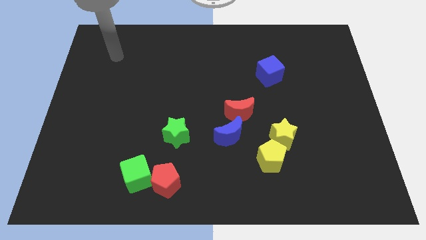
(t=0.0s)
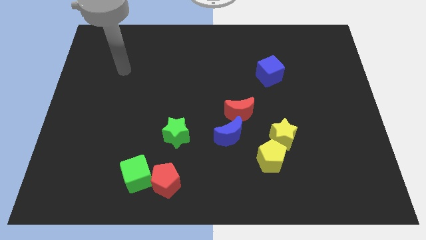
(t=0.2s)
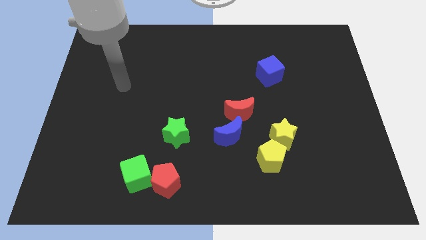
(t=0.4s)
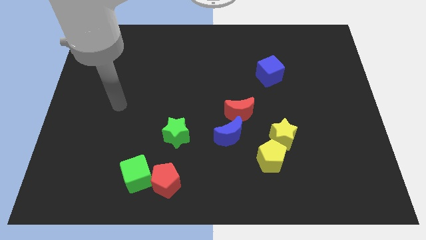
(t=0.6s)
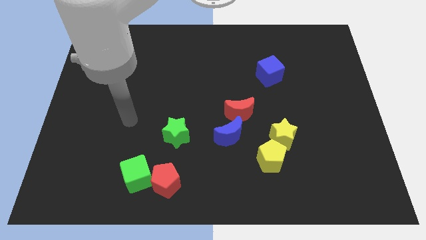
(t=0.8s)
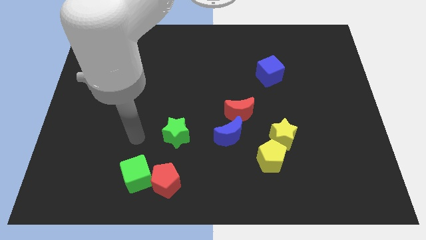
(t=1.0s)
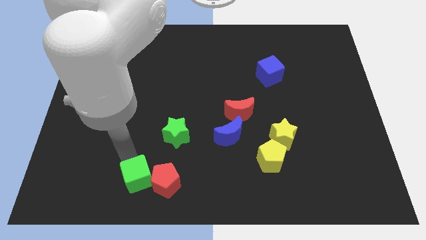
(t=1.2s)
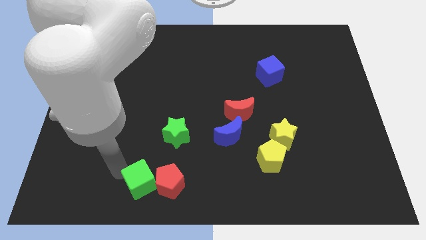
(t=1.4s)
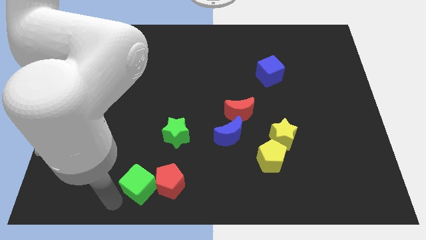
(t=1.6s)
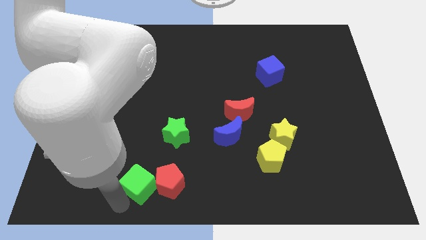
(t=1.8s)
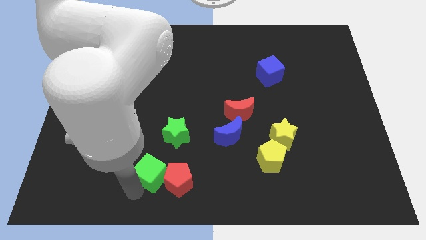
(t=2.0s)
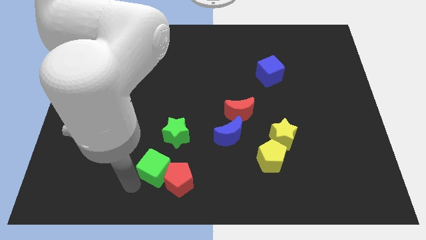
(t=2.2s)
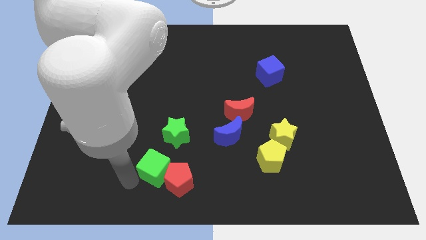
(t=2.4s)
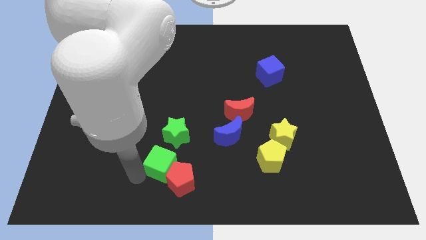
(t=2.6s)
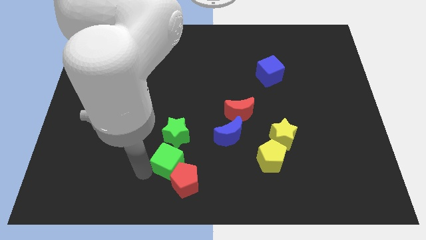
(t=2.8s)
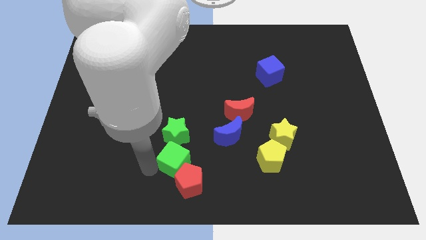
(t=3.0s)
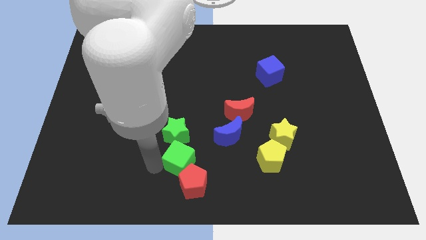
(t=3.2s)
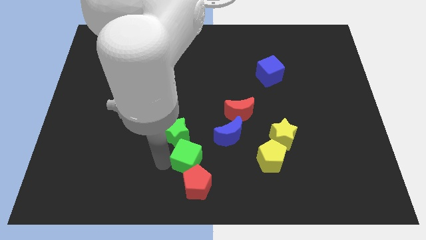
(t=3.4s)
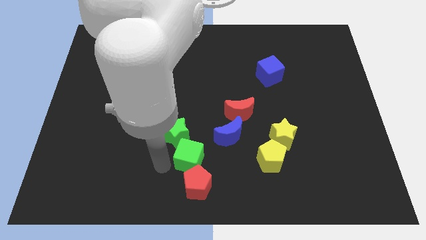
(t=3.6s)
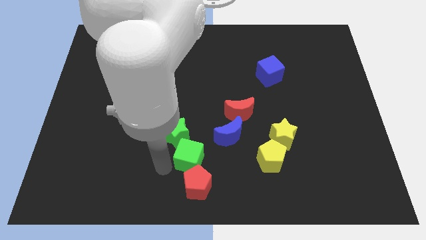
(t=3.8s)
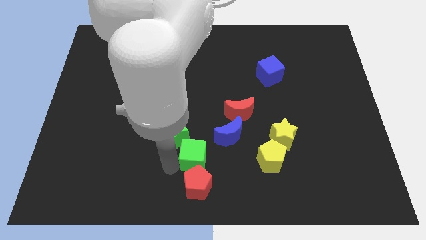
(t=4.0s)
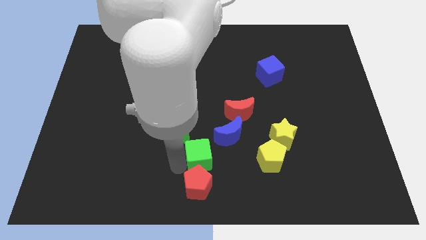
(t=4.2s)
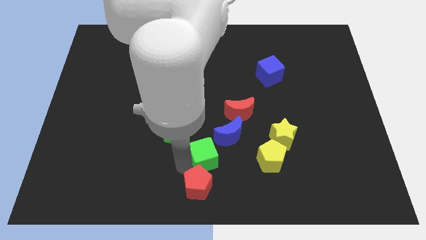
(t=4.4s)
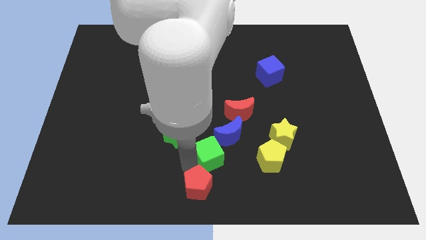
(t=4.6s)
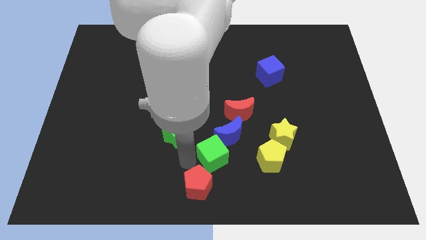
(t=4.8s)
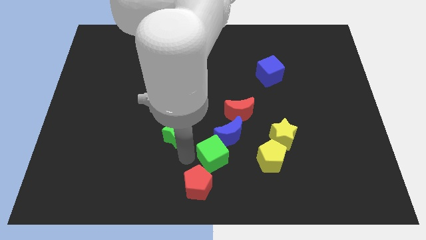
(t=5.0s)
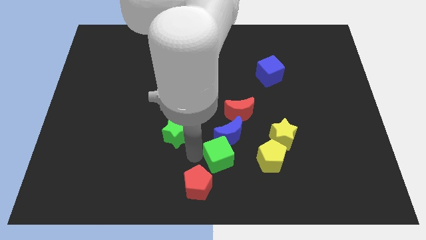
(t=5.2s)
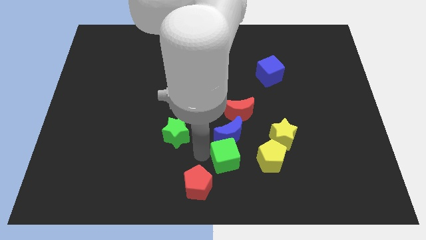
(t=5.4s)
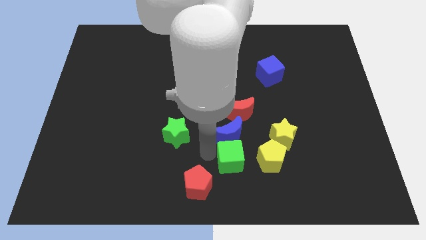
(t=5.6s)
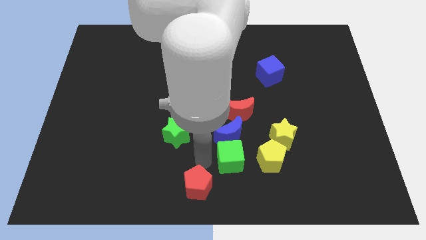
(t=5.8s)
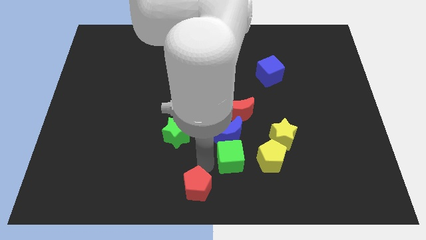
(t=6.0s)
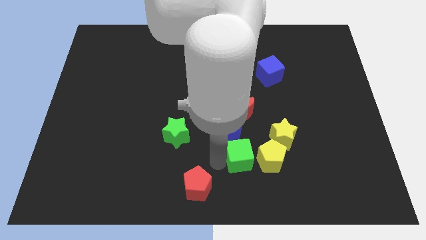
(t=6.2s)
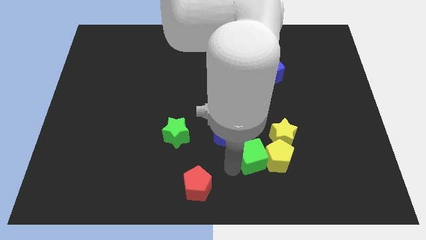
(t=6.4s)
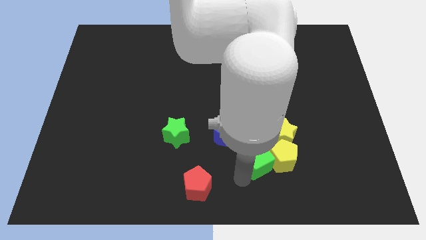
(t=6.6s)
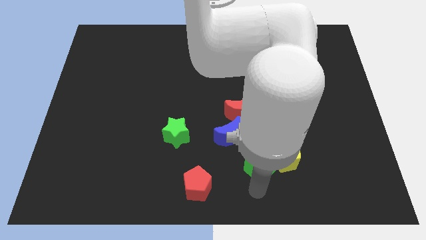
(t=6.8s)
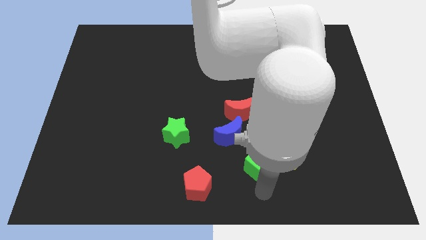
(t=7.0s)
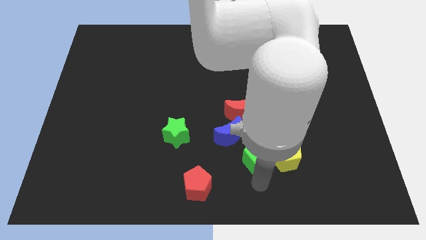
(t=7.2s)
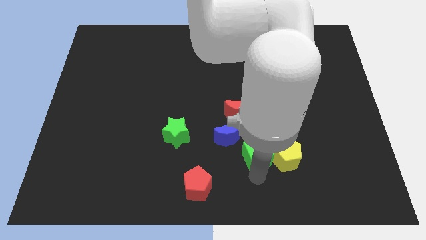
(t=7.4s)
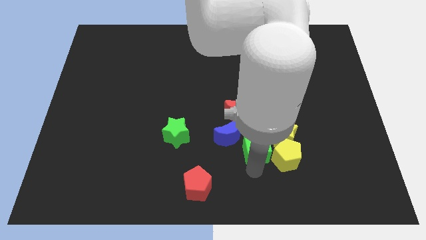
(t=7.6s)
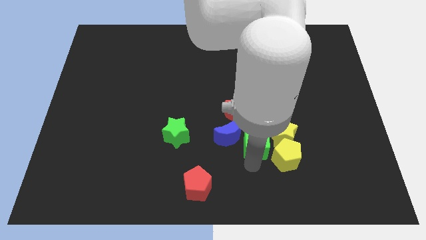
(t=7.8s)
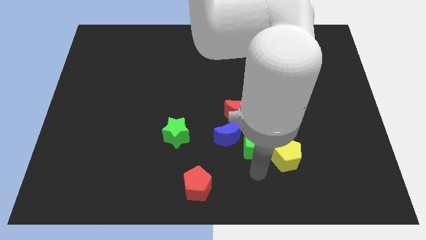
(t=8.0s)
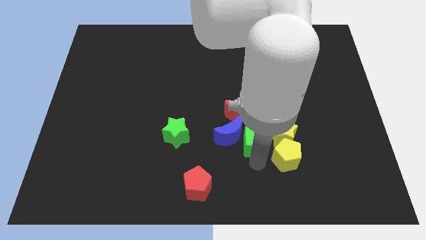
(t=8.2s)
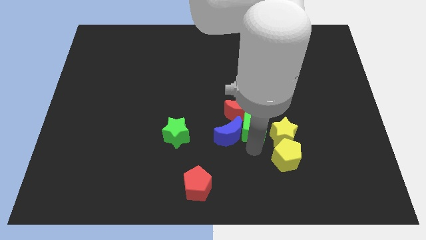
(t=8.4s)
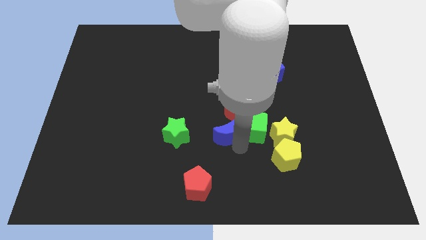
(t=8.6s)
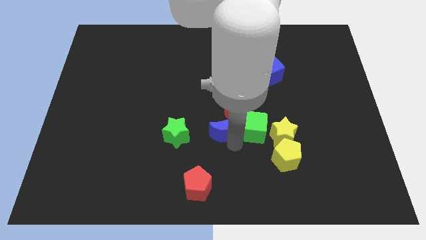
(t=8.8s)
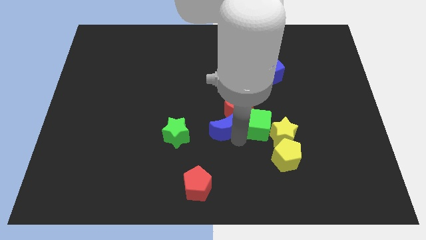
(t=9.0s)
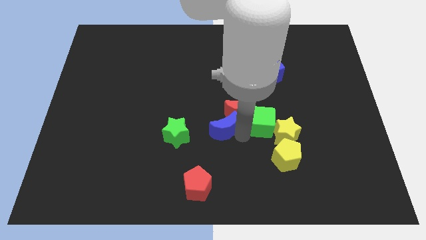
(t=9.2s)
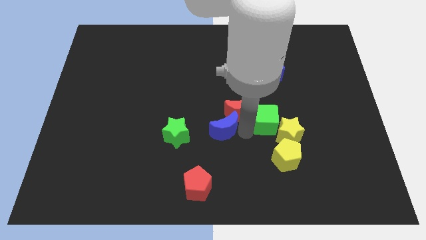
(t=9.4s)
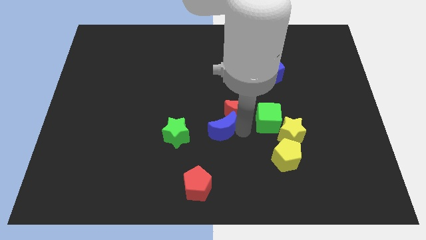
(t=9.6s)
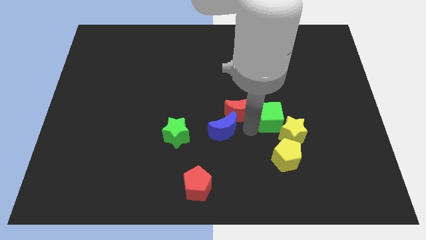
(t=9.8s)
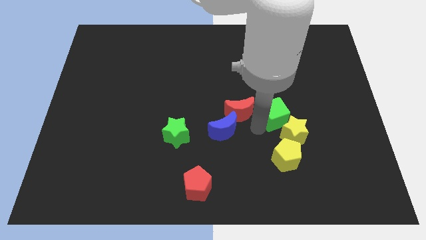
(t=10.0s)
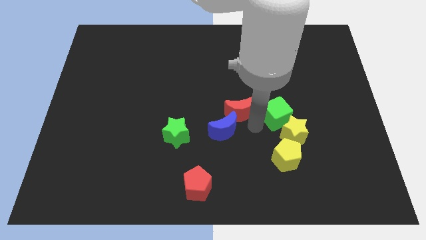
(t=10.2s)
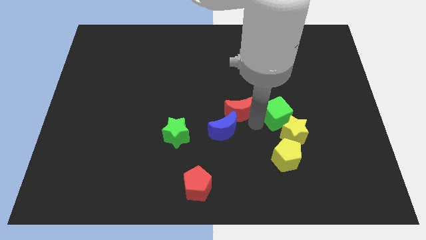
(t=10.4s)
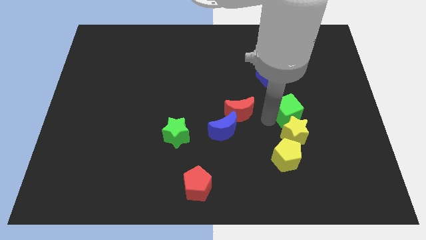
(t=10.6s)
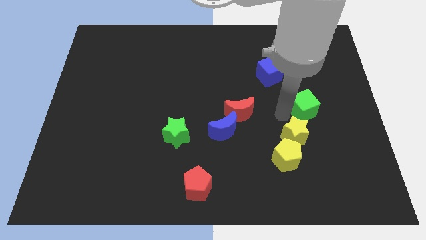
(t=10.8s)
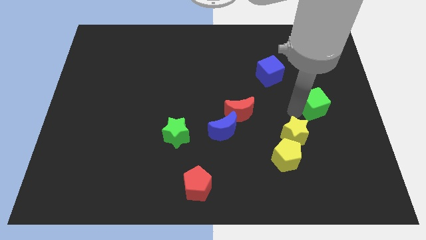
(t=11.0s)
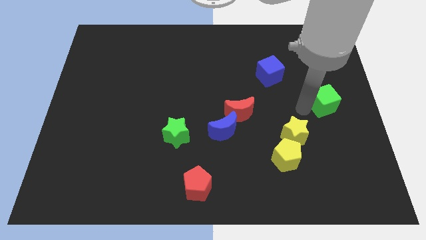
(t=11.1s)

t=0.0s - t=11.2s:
move the green cube to the right side of the board

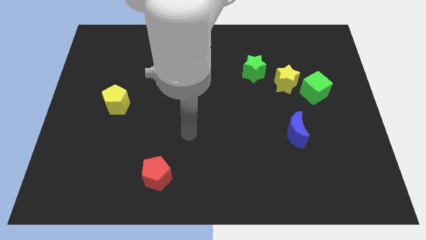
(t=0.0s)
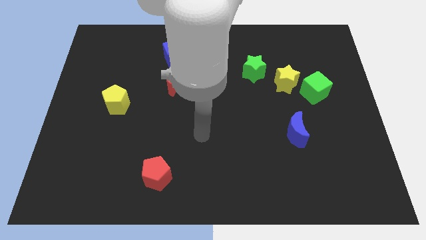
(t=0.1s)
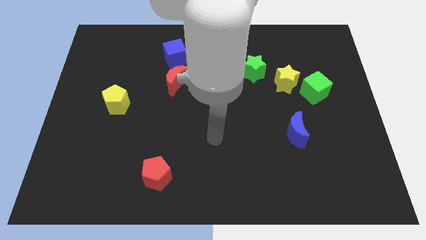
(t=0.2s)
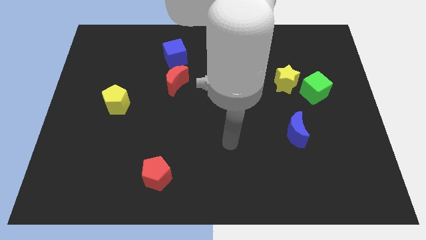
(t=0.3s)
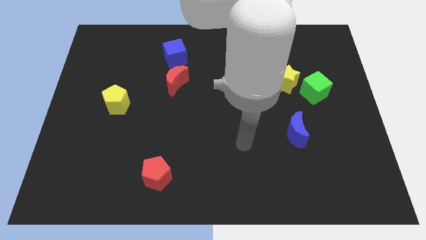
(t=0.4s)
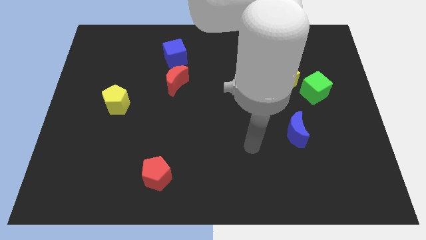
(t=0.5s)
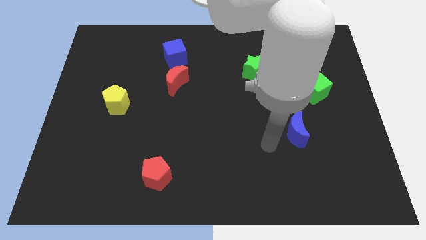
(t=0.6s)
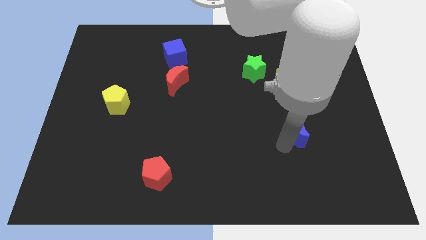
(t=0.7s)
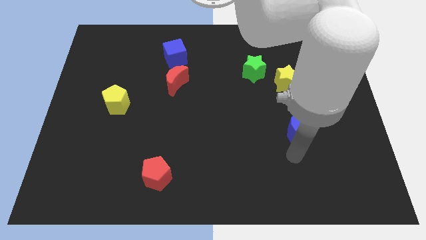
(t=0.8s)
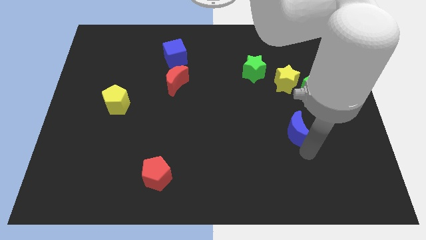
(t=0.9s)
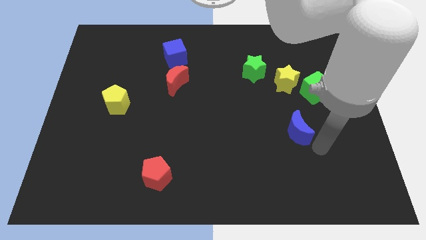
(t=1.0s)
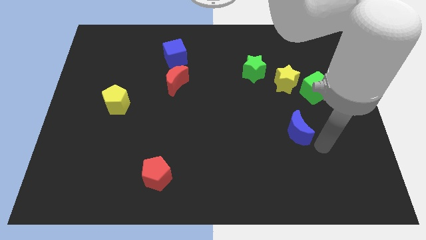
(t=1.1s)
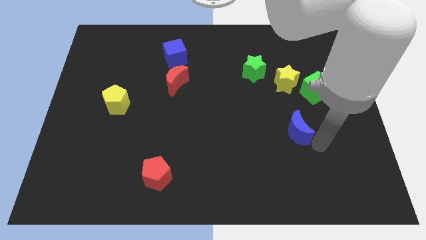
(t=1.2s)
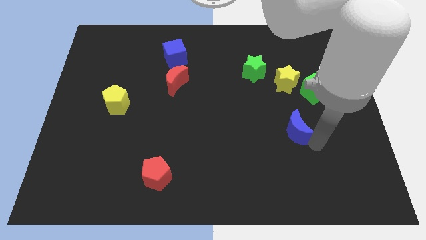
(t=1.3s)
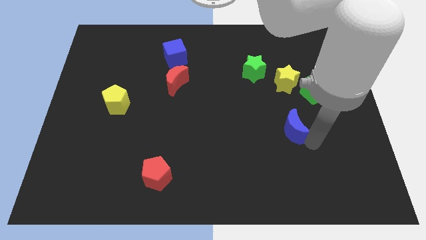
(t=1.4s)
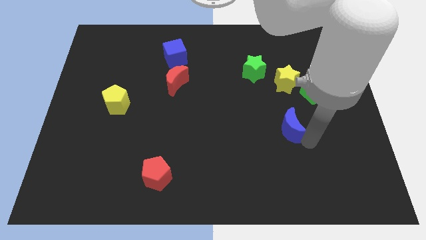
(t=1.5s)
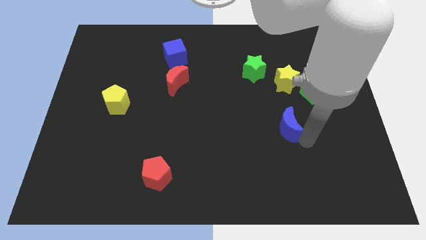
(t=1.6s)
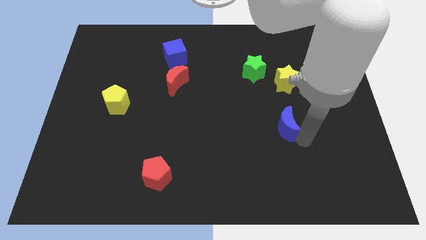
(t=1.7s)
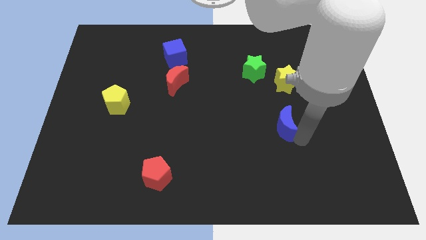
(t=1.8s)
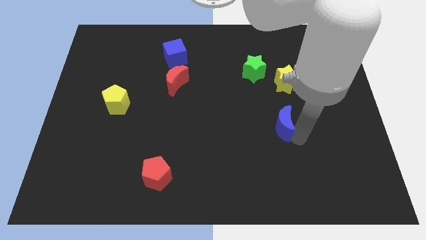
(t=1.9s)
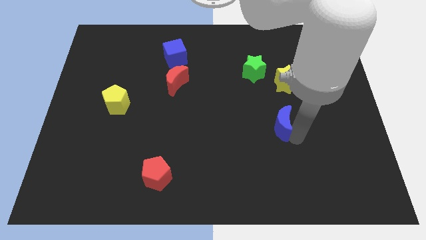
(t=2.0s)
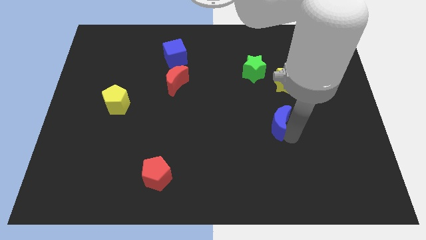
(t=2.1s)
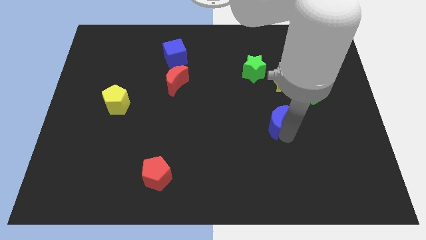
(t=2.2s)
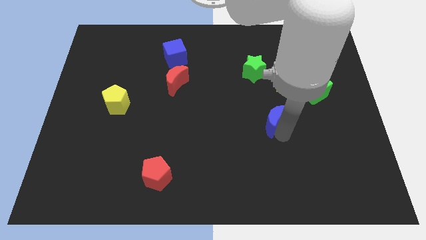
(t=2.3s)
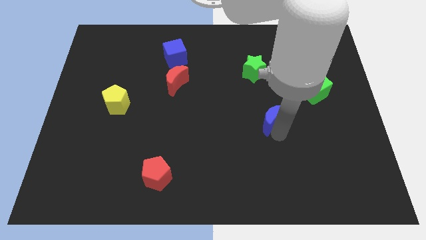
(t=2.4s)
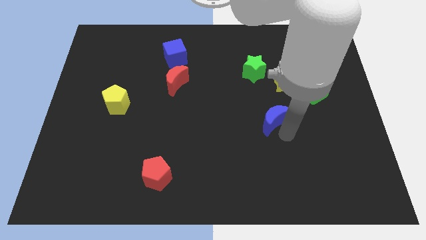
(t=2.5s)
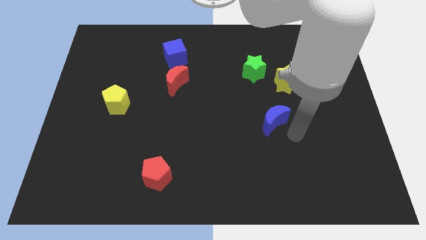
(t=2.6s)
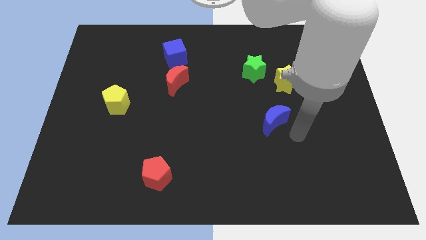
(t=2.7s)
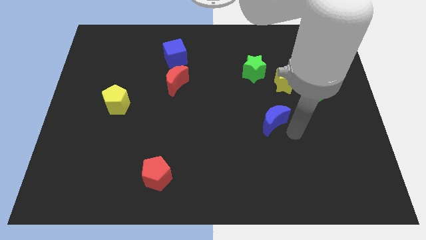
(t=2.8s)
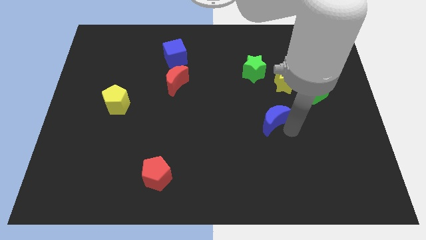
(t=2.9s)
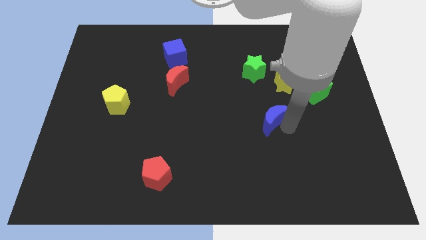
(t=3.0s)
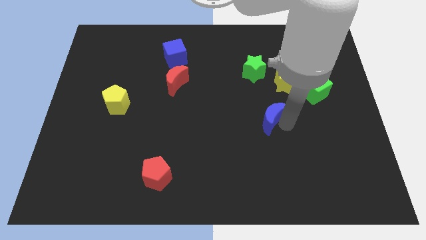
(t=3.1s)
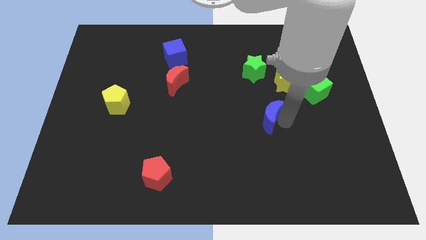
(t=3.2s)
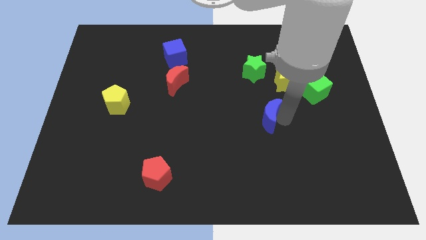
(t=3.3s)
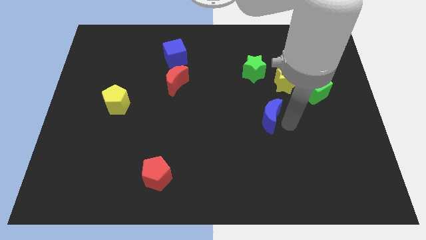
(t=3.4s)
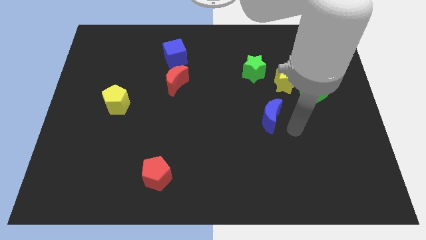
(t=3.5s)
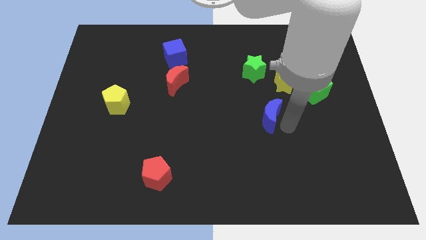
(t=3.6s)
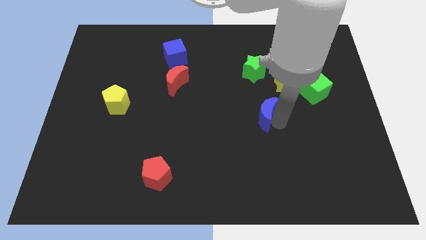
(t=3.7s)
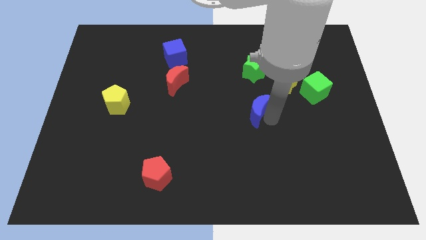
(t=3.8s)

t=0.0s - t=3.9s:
slide the blue moon to the middle of the board
